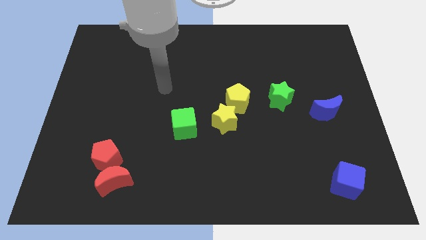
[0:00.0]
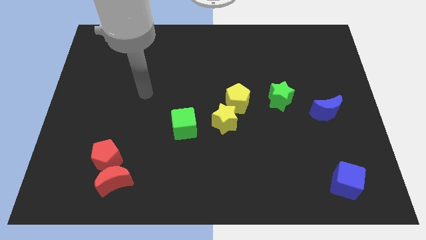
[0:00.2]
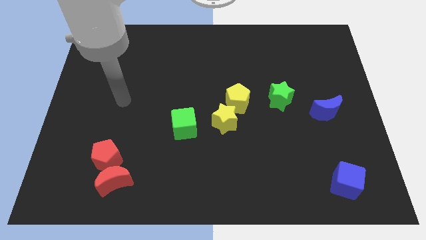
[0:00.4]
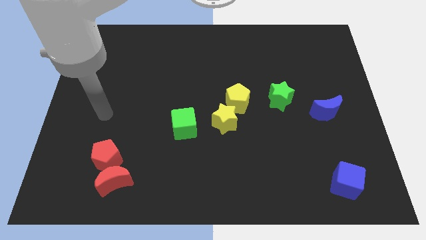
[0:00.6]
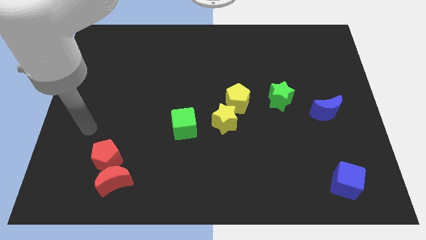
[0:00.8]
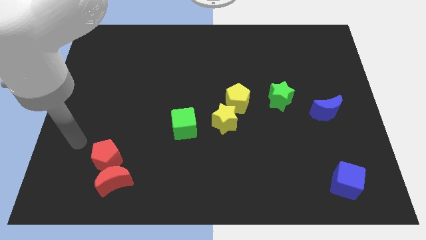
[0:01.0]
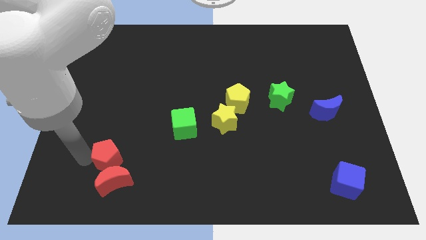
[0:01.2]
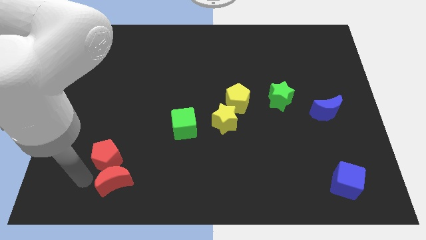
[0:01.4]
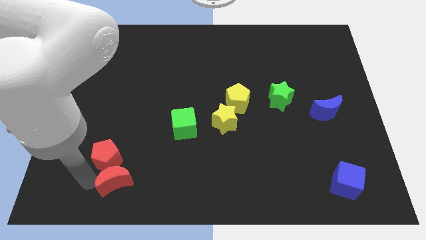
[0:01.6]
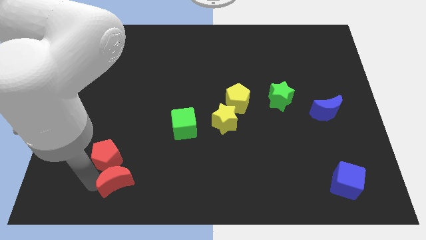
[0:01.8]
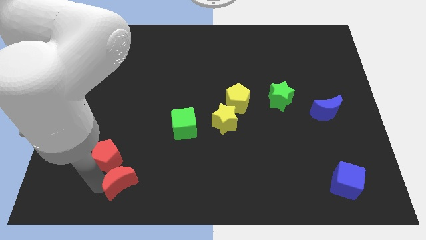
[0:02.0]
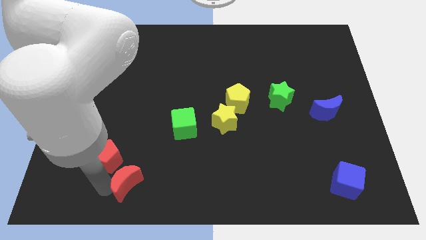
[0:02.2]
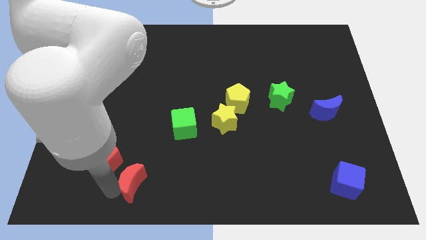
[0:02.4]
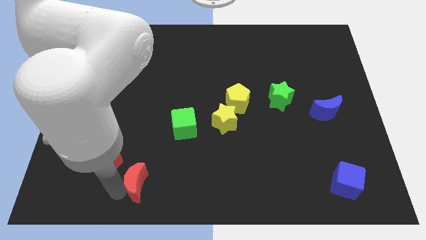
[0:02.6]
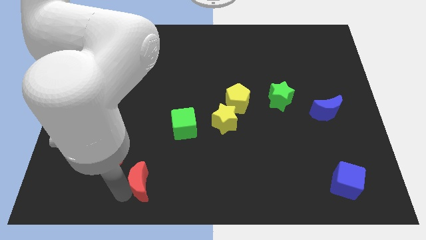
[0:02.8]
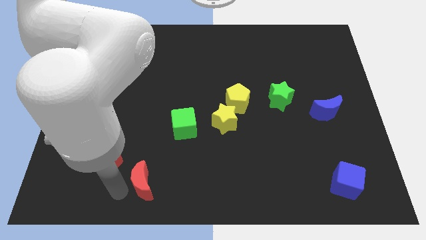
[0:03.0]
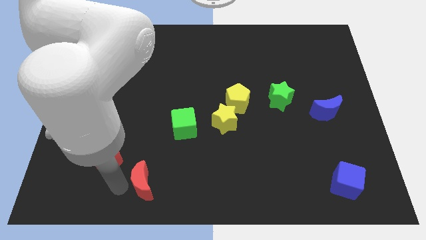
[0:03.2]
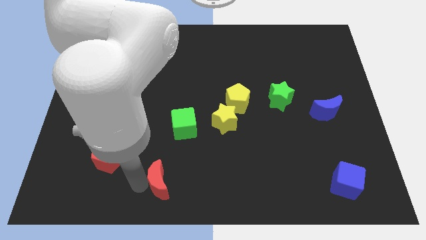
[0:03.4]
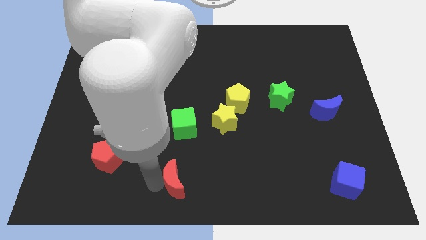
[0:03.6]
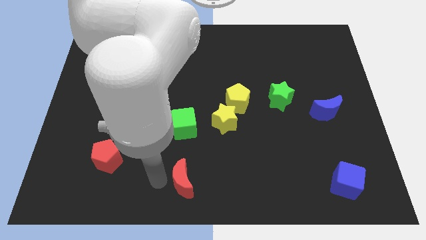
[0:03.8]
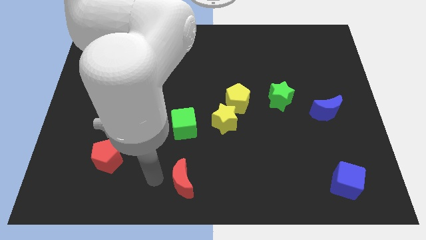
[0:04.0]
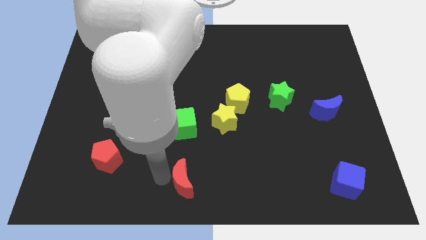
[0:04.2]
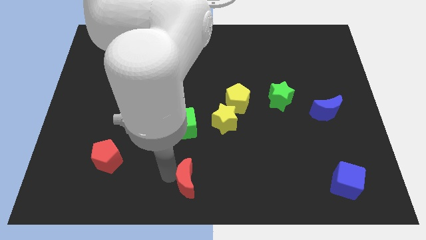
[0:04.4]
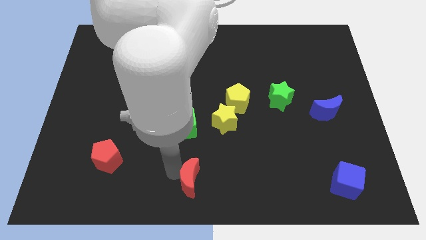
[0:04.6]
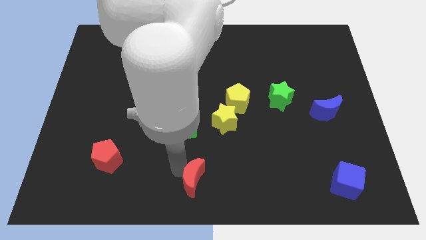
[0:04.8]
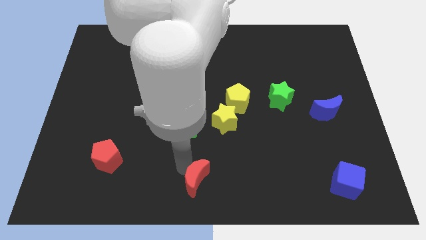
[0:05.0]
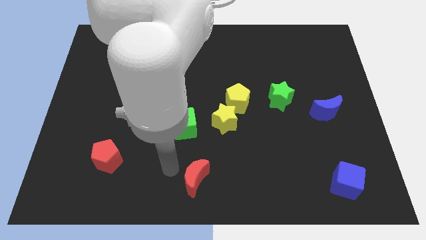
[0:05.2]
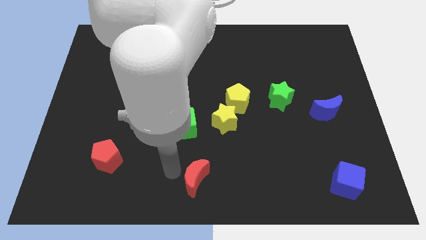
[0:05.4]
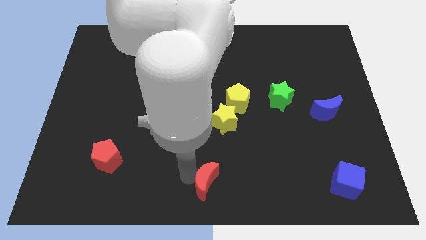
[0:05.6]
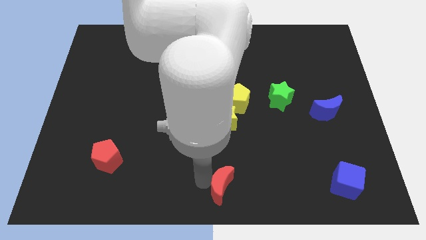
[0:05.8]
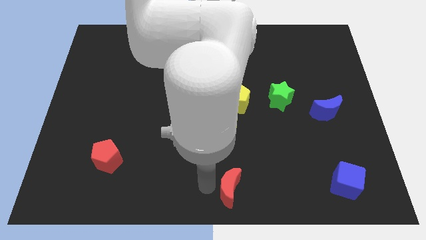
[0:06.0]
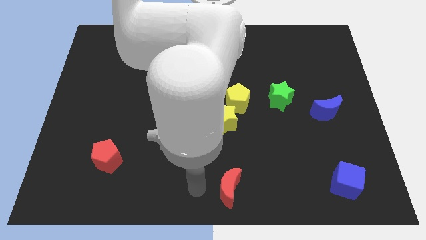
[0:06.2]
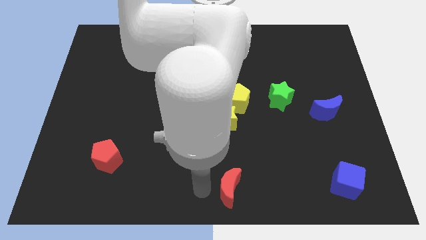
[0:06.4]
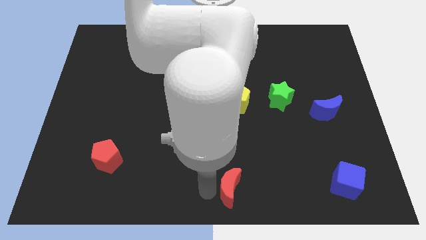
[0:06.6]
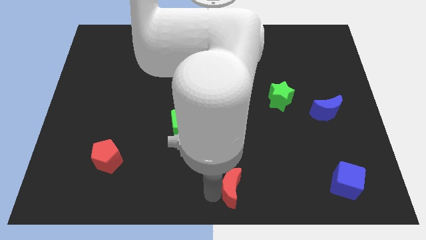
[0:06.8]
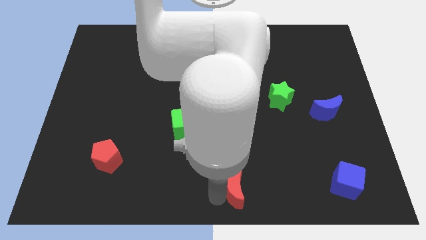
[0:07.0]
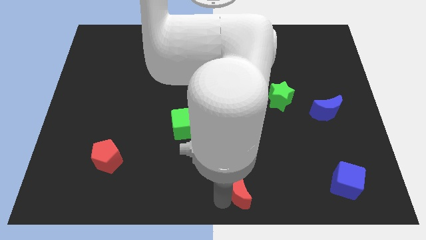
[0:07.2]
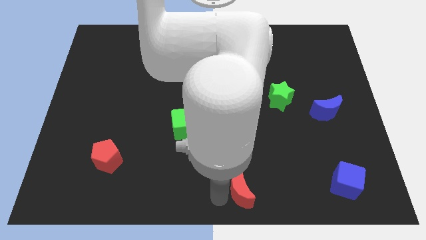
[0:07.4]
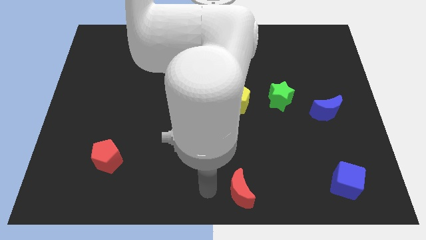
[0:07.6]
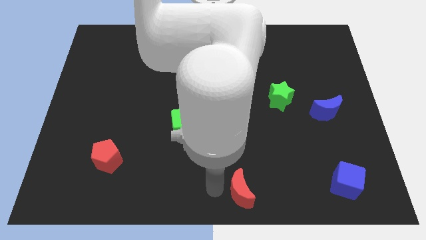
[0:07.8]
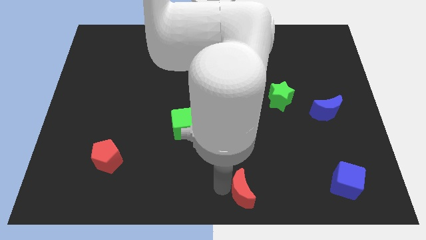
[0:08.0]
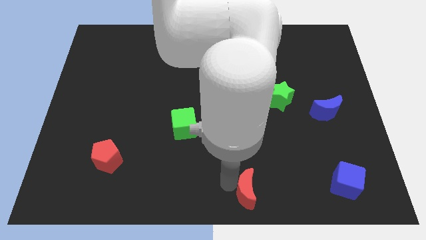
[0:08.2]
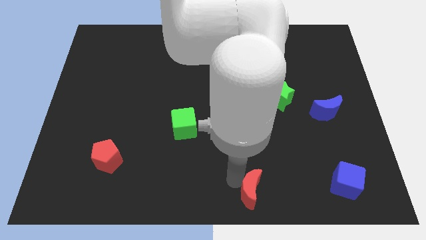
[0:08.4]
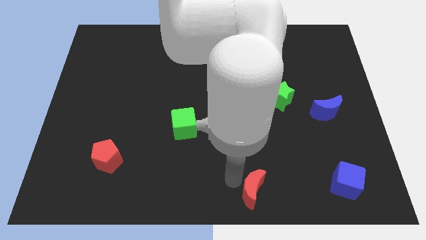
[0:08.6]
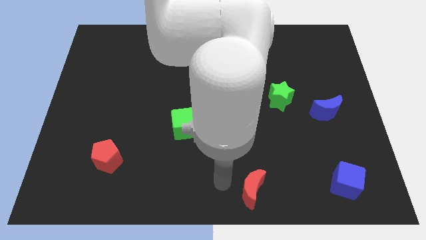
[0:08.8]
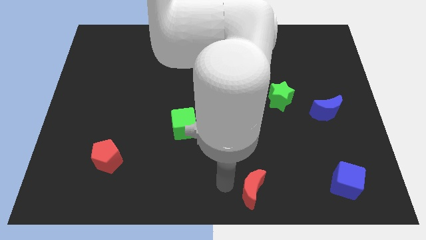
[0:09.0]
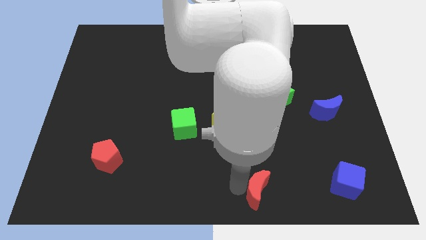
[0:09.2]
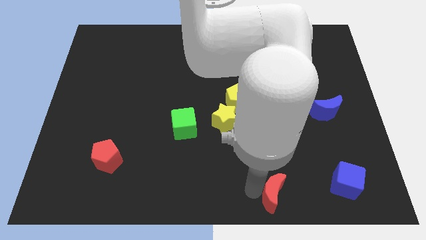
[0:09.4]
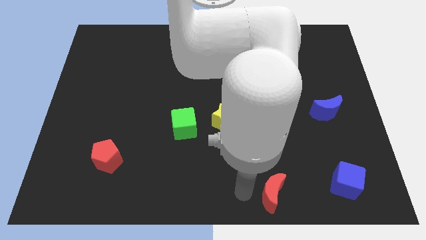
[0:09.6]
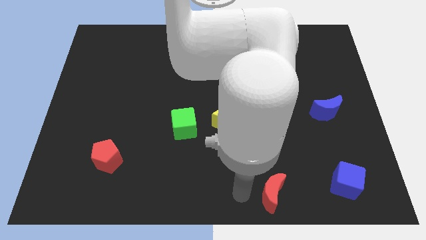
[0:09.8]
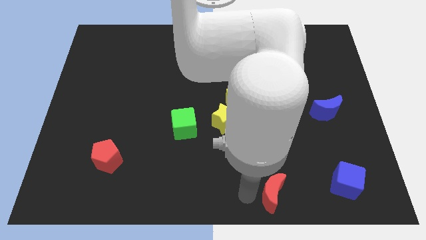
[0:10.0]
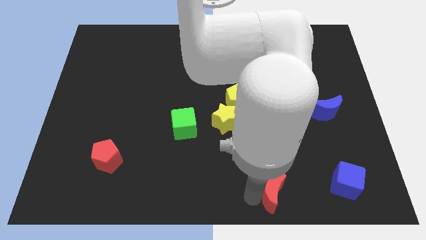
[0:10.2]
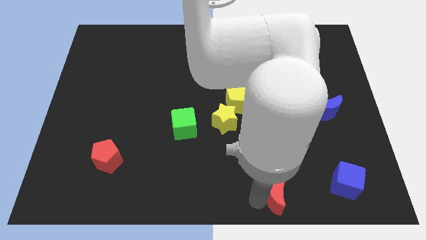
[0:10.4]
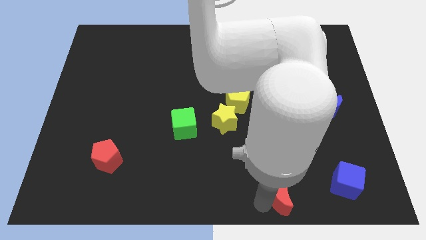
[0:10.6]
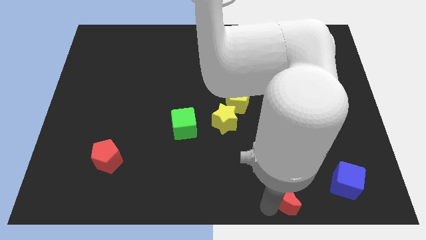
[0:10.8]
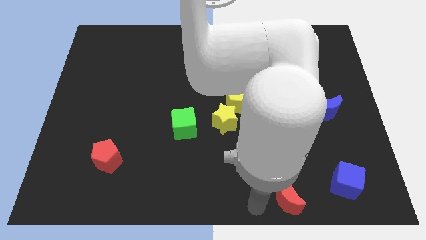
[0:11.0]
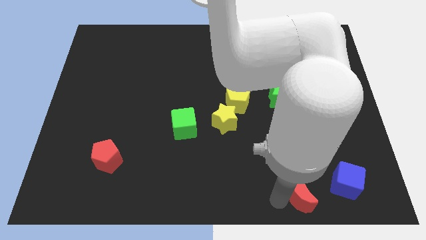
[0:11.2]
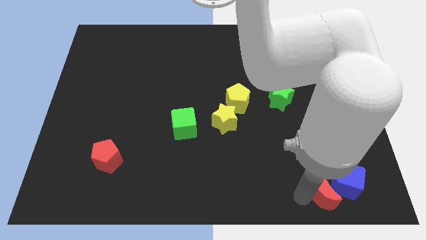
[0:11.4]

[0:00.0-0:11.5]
put the red moon next to the blue cube
